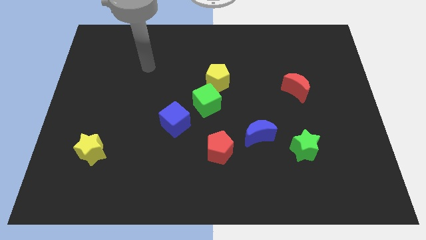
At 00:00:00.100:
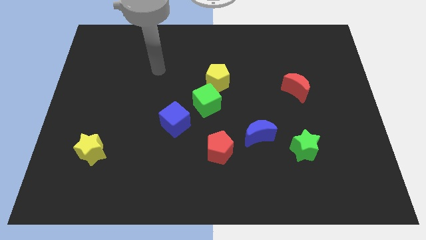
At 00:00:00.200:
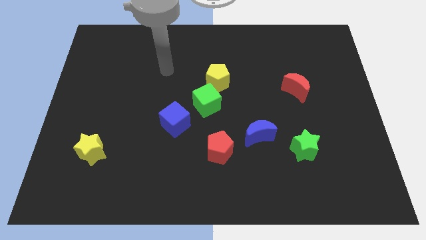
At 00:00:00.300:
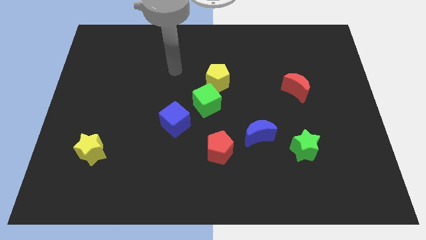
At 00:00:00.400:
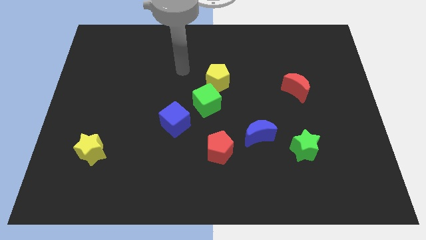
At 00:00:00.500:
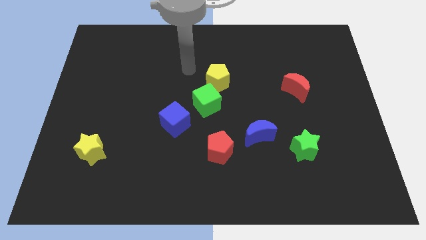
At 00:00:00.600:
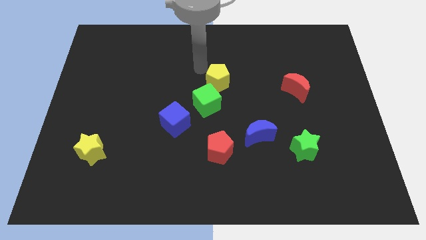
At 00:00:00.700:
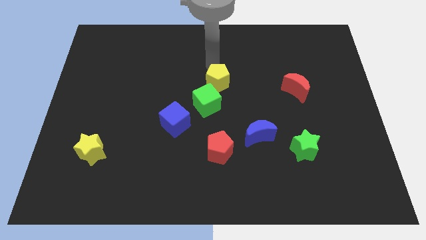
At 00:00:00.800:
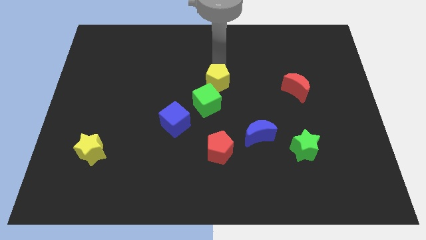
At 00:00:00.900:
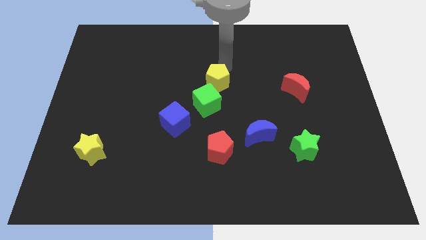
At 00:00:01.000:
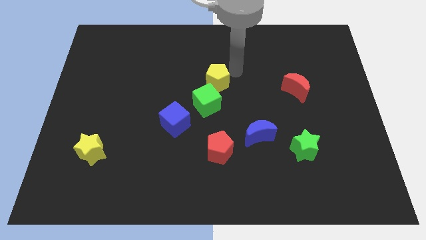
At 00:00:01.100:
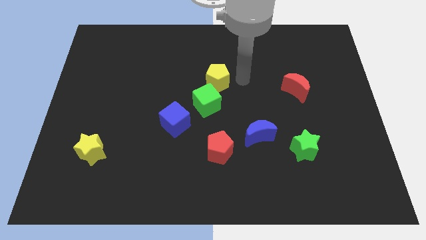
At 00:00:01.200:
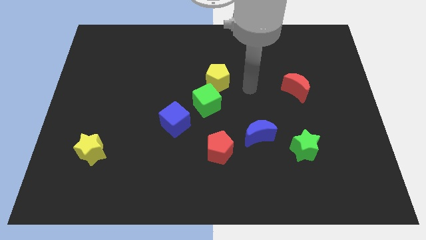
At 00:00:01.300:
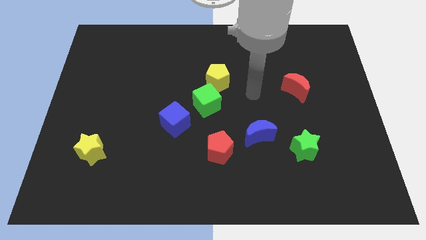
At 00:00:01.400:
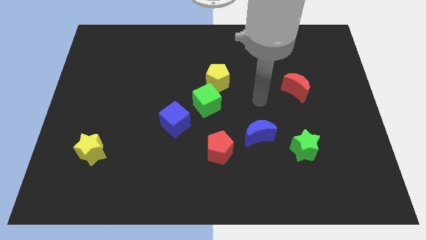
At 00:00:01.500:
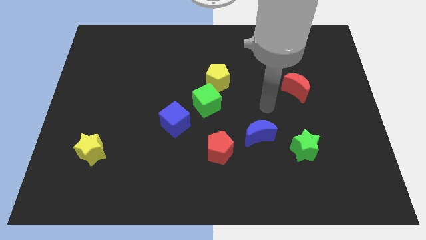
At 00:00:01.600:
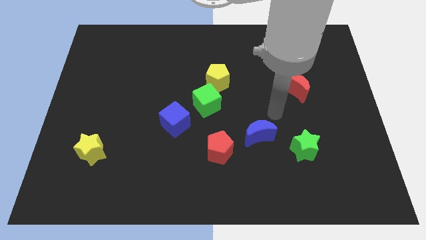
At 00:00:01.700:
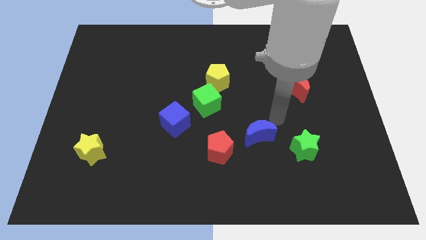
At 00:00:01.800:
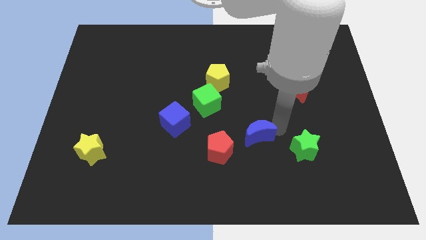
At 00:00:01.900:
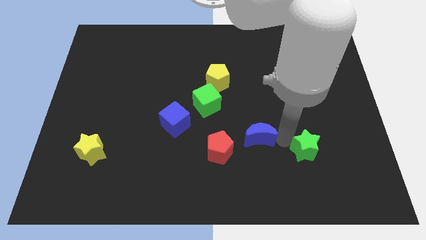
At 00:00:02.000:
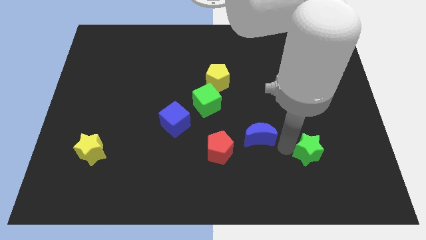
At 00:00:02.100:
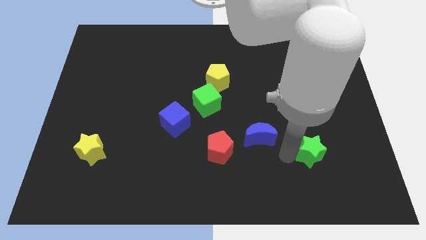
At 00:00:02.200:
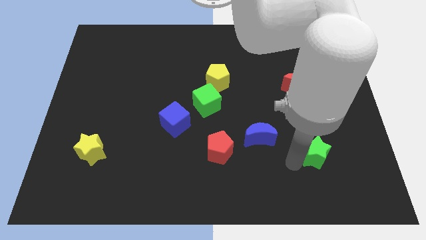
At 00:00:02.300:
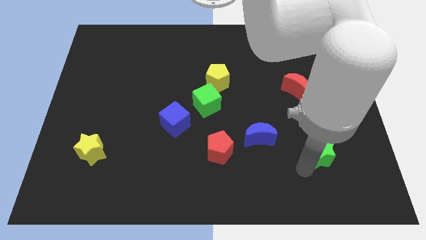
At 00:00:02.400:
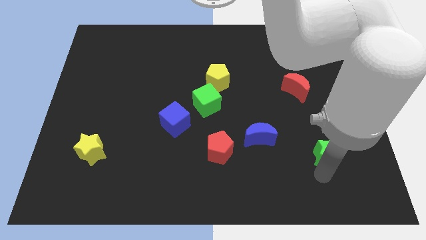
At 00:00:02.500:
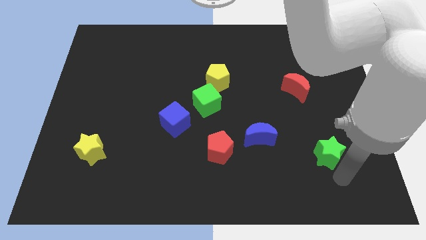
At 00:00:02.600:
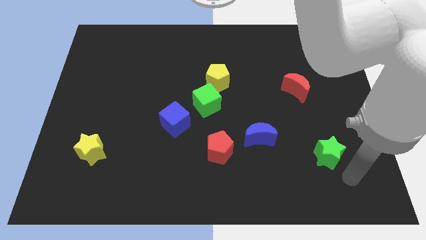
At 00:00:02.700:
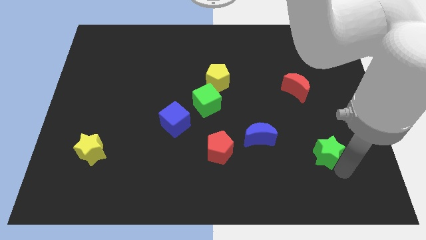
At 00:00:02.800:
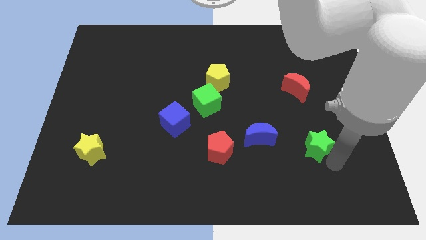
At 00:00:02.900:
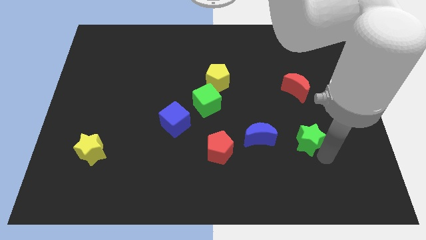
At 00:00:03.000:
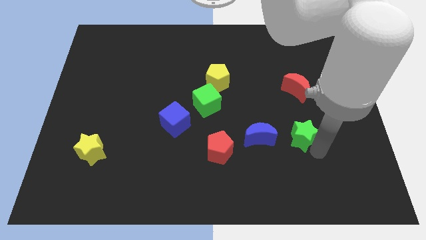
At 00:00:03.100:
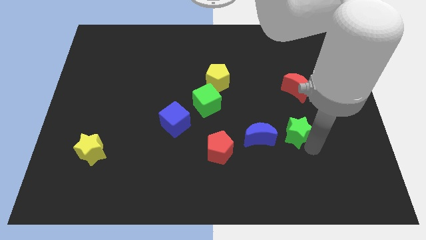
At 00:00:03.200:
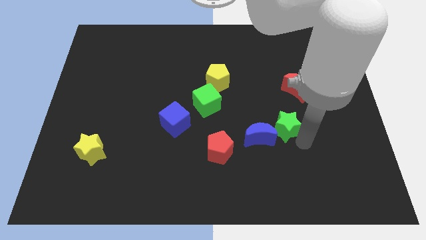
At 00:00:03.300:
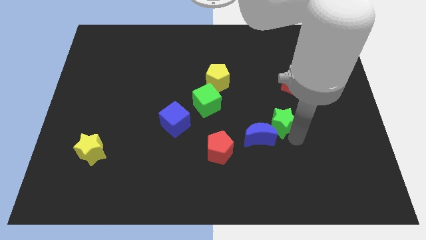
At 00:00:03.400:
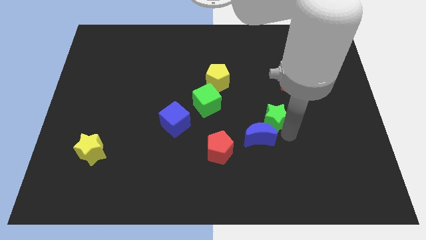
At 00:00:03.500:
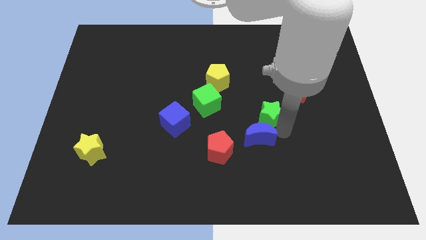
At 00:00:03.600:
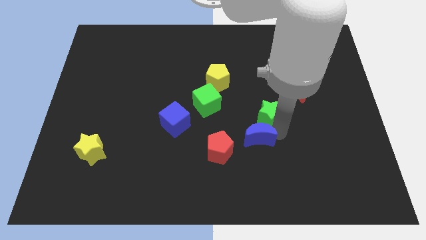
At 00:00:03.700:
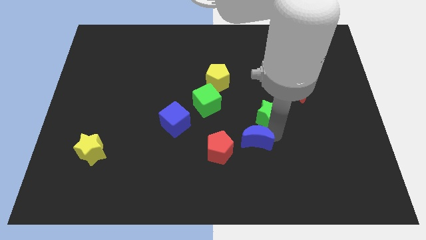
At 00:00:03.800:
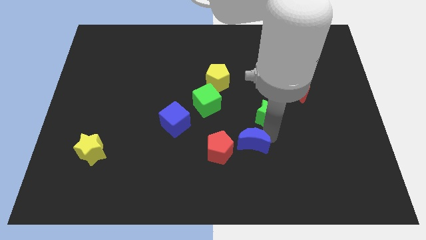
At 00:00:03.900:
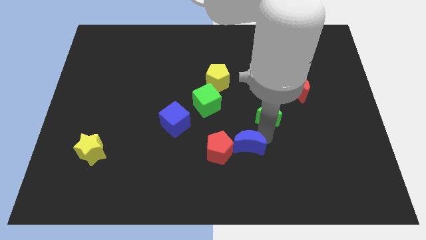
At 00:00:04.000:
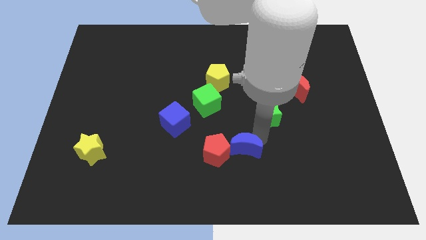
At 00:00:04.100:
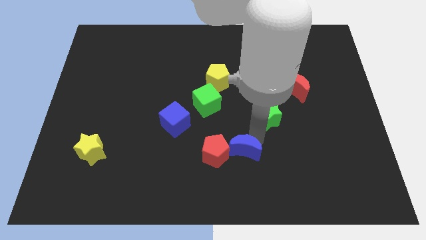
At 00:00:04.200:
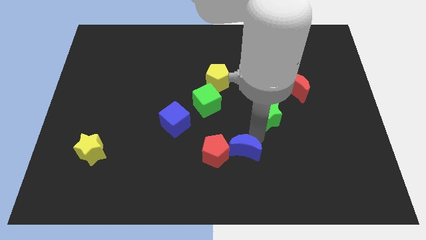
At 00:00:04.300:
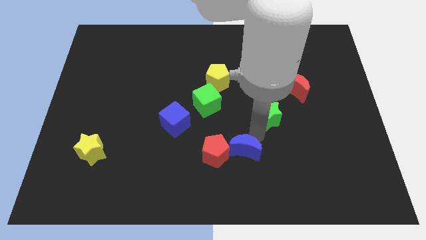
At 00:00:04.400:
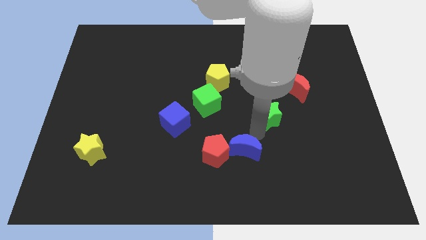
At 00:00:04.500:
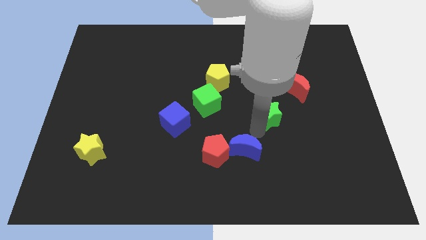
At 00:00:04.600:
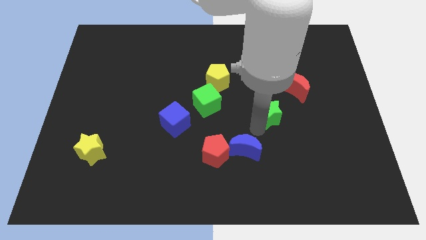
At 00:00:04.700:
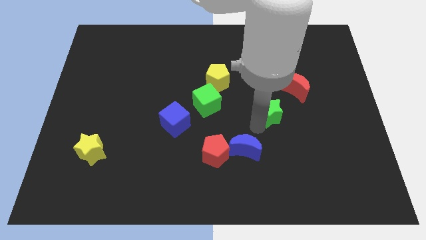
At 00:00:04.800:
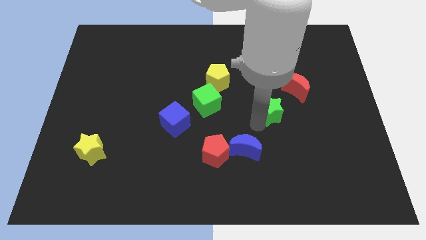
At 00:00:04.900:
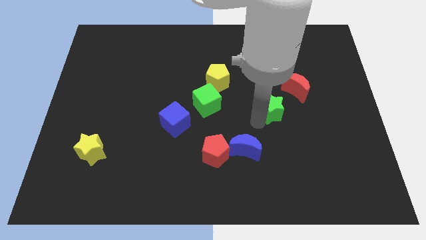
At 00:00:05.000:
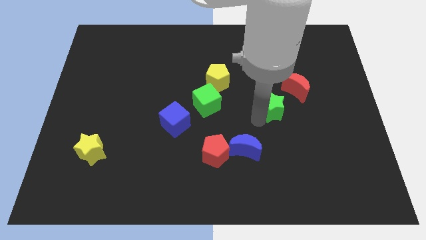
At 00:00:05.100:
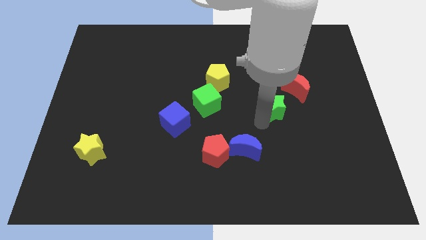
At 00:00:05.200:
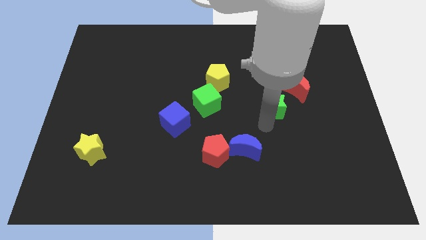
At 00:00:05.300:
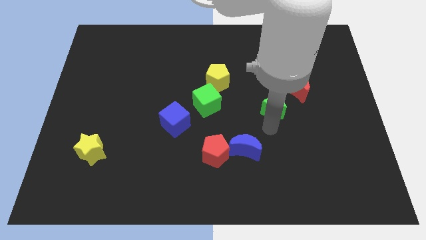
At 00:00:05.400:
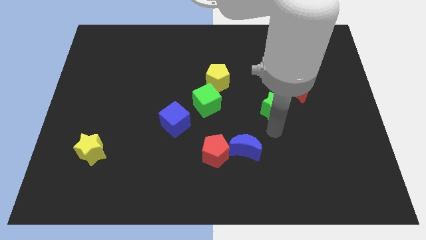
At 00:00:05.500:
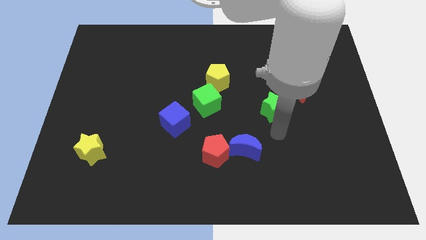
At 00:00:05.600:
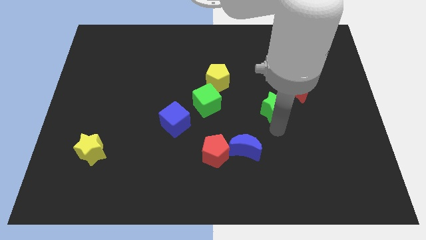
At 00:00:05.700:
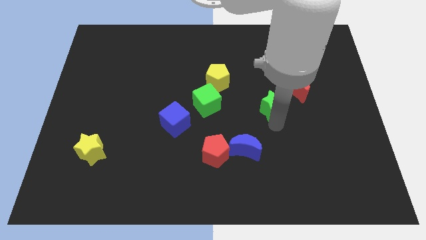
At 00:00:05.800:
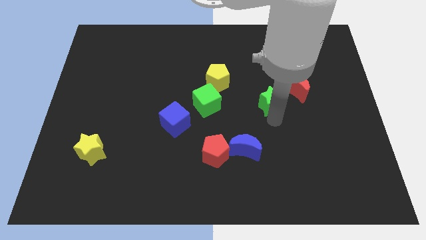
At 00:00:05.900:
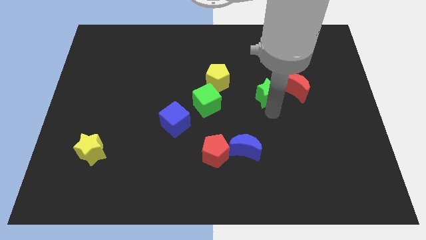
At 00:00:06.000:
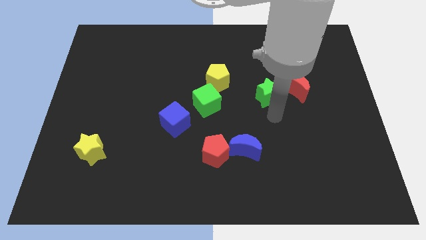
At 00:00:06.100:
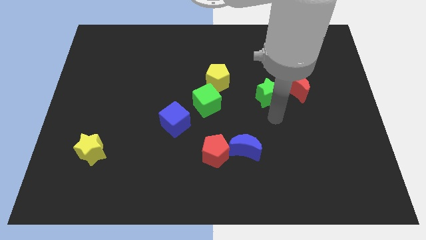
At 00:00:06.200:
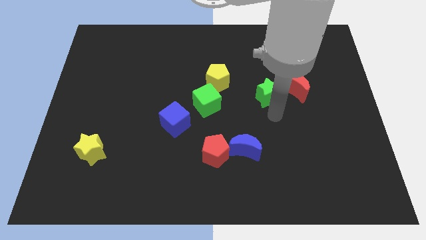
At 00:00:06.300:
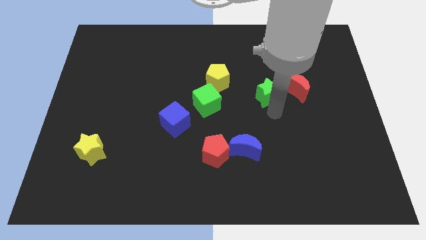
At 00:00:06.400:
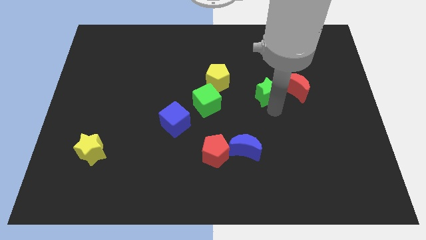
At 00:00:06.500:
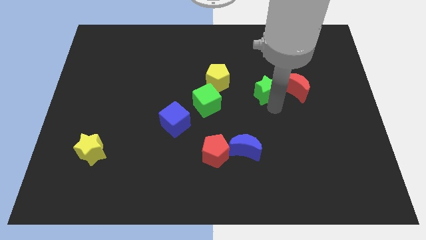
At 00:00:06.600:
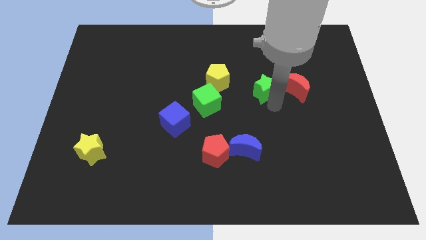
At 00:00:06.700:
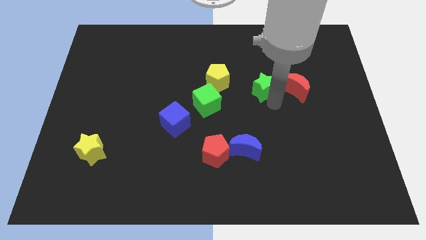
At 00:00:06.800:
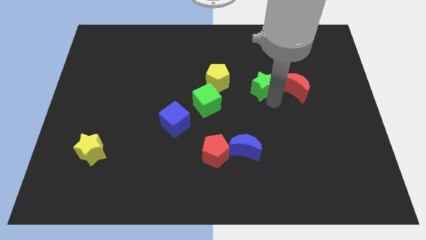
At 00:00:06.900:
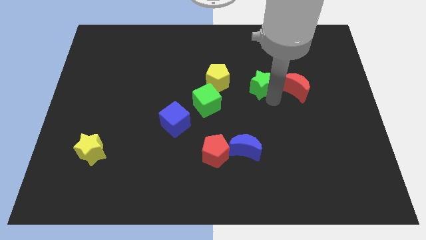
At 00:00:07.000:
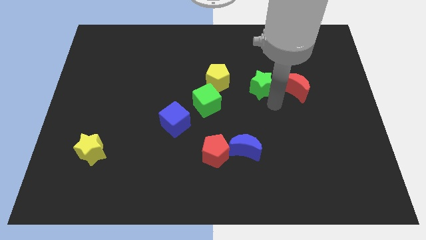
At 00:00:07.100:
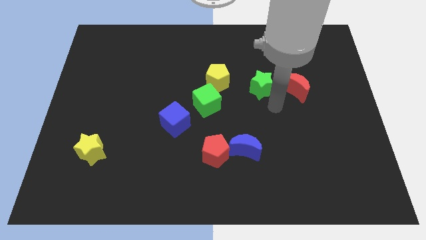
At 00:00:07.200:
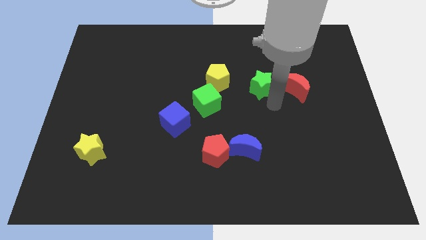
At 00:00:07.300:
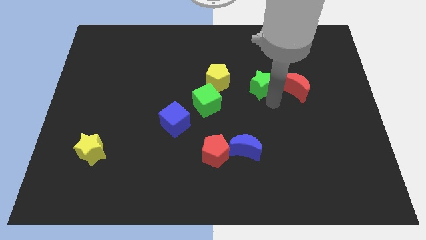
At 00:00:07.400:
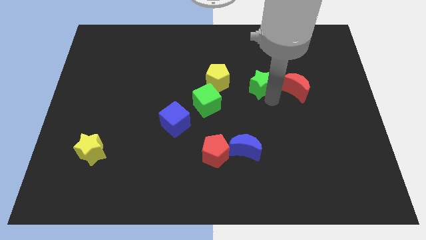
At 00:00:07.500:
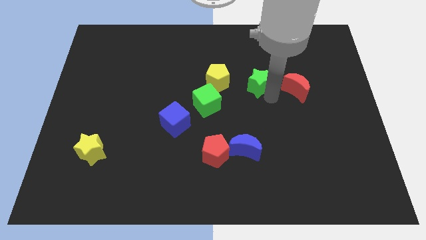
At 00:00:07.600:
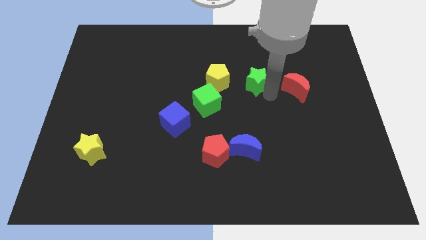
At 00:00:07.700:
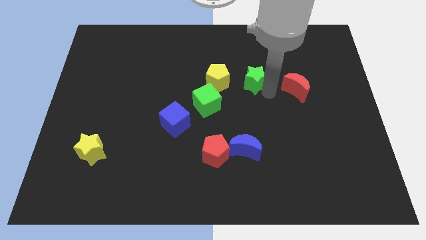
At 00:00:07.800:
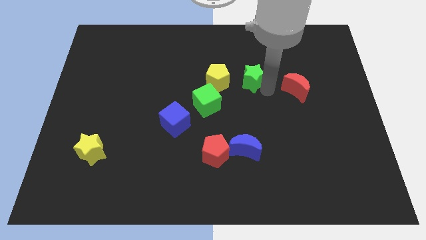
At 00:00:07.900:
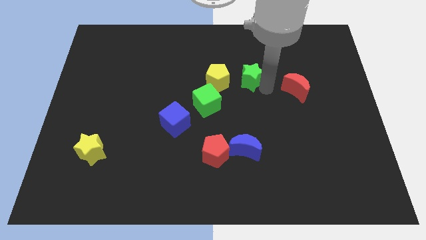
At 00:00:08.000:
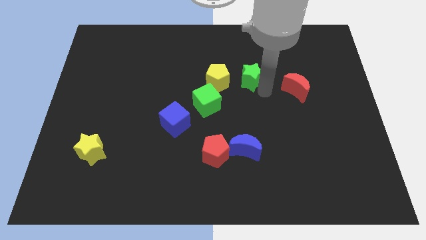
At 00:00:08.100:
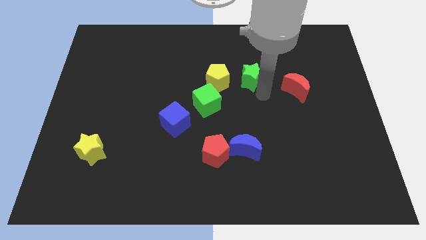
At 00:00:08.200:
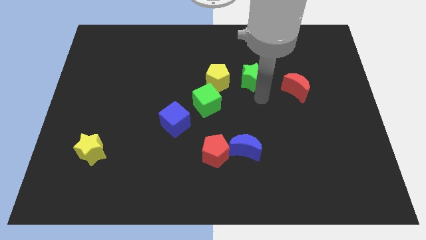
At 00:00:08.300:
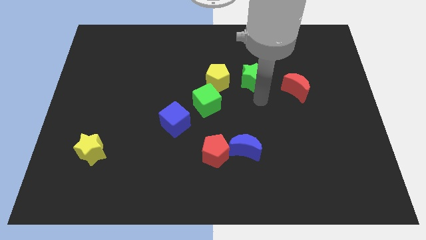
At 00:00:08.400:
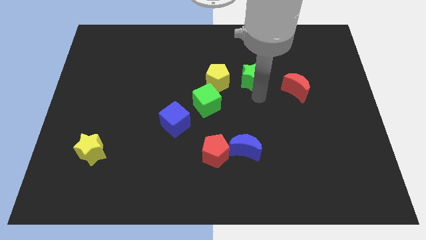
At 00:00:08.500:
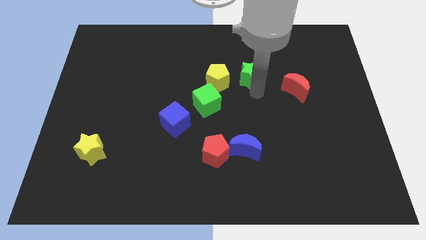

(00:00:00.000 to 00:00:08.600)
move the green star upwards and then left

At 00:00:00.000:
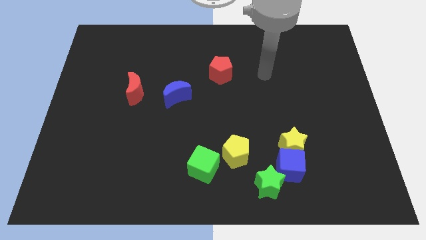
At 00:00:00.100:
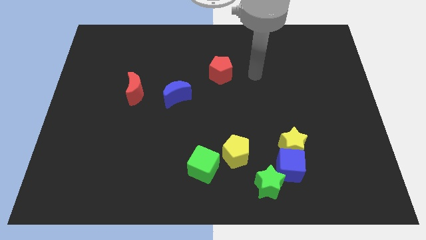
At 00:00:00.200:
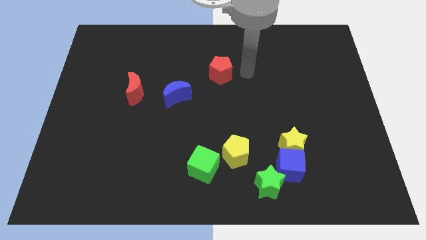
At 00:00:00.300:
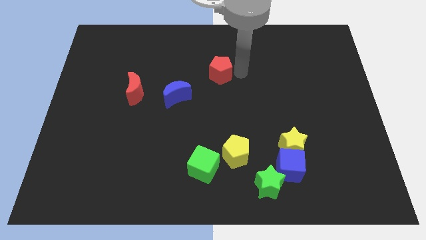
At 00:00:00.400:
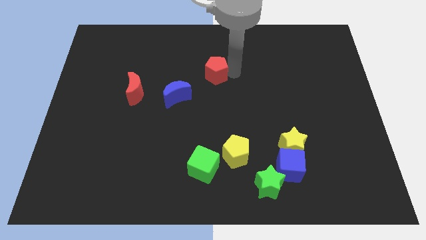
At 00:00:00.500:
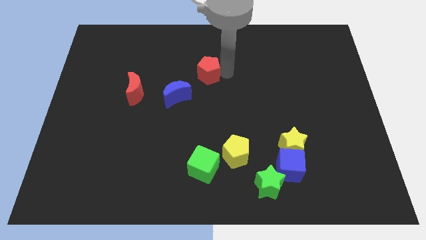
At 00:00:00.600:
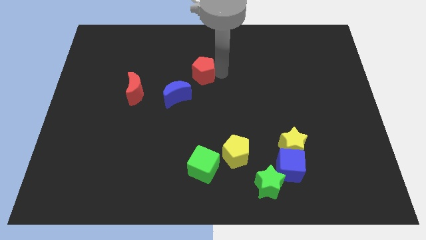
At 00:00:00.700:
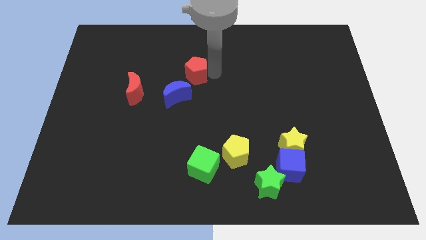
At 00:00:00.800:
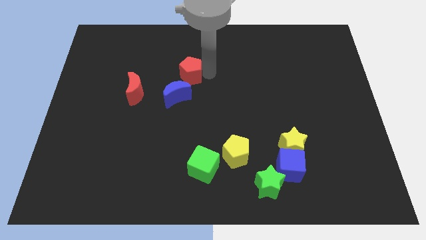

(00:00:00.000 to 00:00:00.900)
push the red pentagon a little bit to the left
